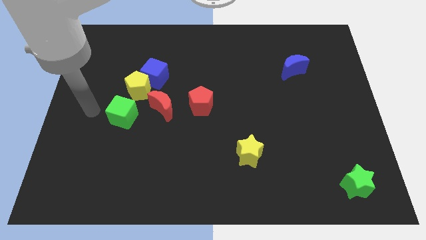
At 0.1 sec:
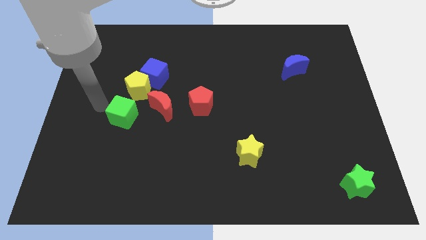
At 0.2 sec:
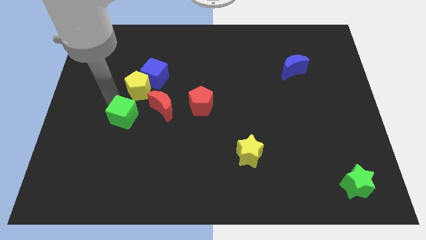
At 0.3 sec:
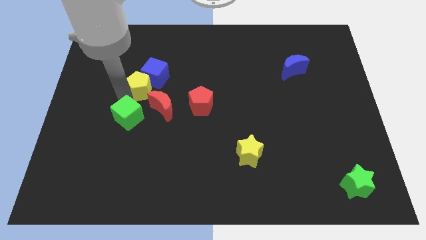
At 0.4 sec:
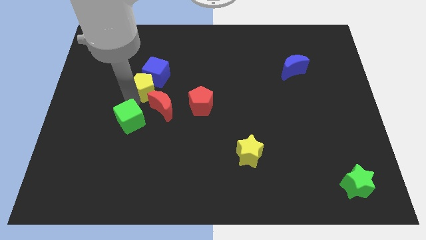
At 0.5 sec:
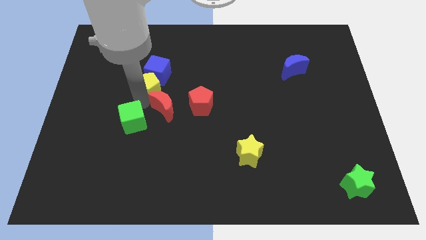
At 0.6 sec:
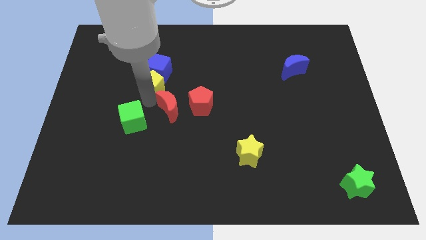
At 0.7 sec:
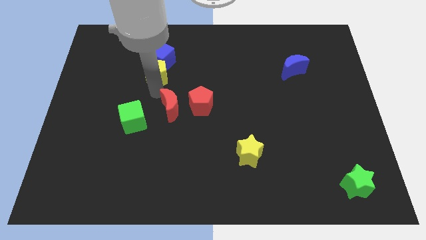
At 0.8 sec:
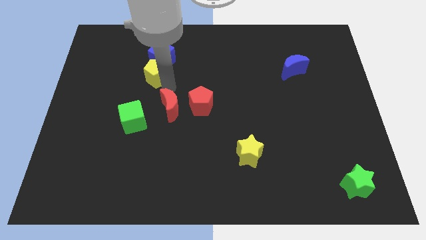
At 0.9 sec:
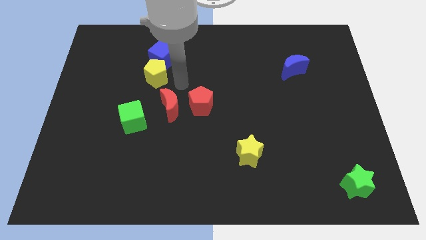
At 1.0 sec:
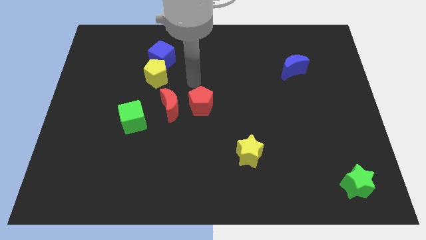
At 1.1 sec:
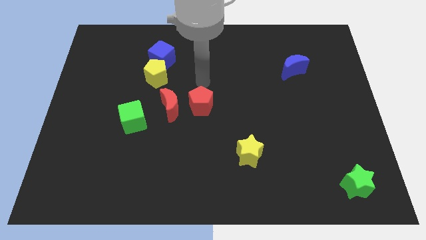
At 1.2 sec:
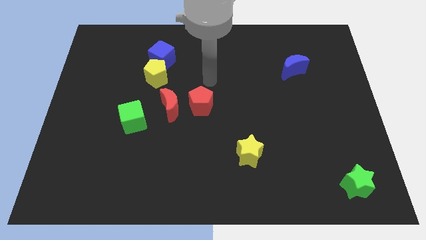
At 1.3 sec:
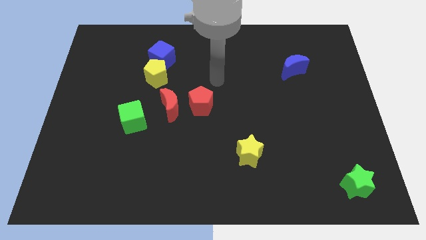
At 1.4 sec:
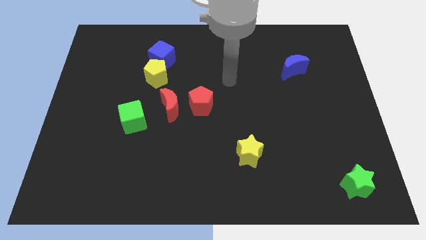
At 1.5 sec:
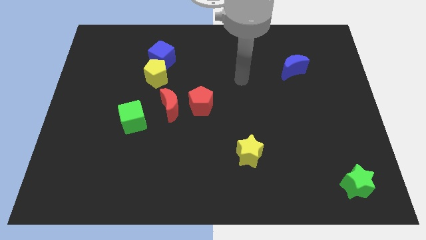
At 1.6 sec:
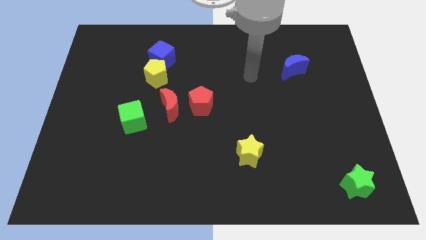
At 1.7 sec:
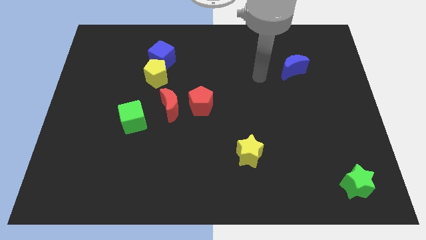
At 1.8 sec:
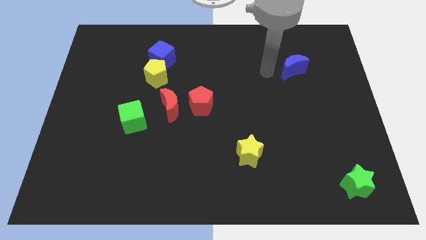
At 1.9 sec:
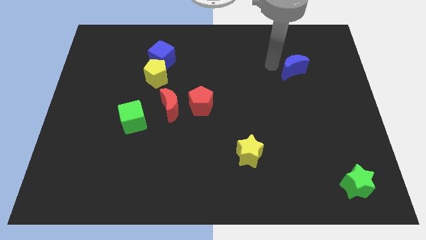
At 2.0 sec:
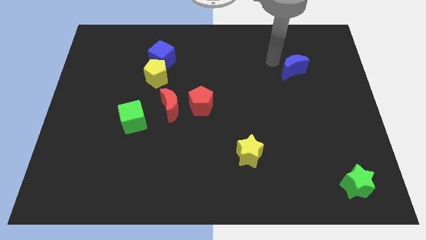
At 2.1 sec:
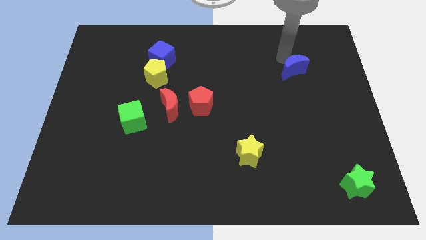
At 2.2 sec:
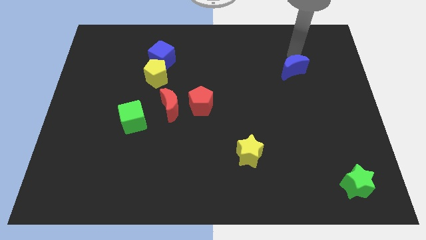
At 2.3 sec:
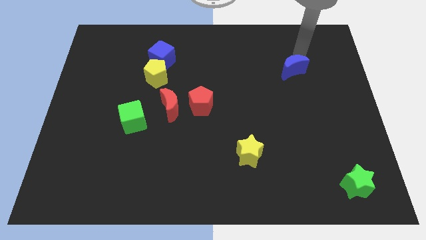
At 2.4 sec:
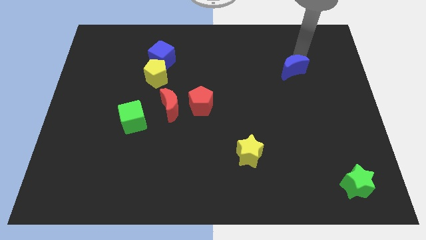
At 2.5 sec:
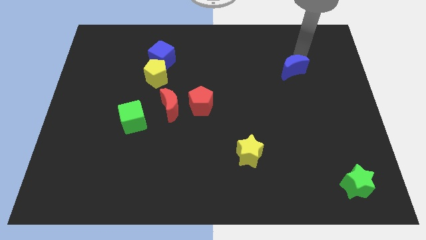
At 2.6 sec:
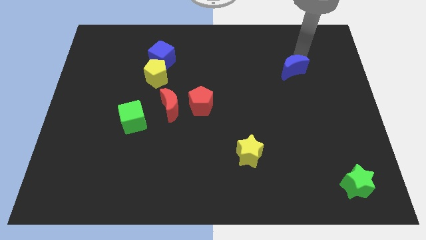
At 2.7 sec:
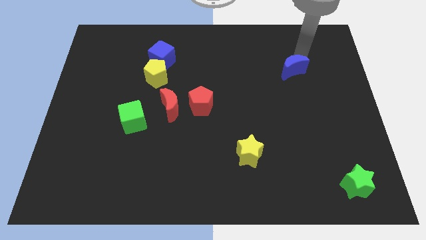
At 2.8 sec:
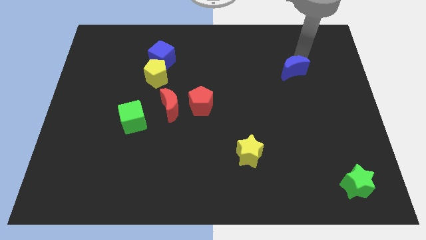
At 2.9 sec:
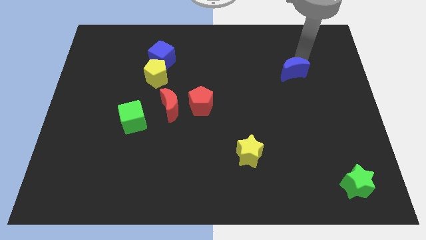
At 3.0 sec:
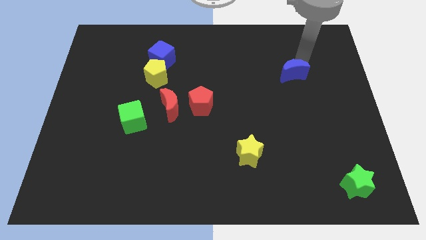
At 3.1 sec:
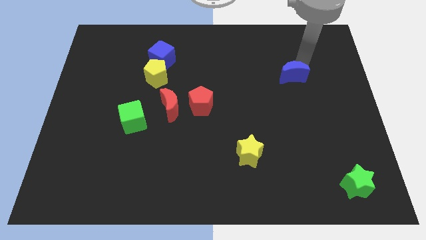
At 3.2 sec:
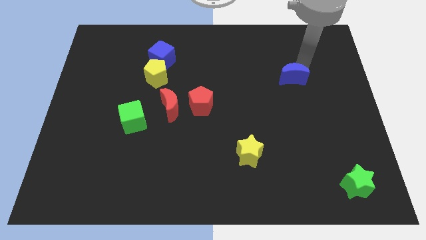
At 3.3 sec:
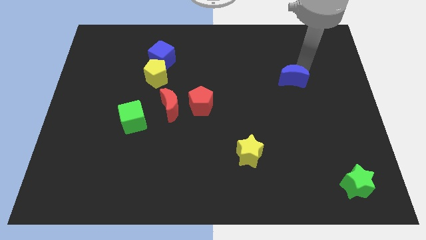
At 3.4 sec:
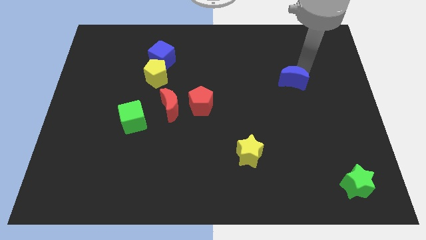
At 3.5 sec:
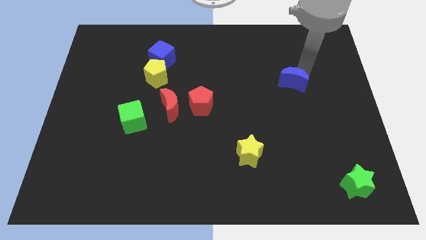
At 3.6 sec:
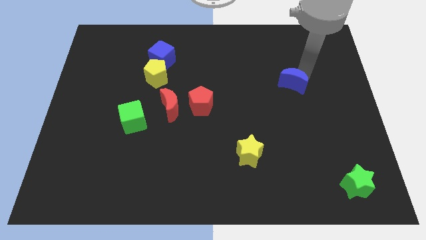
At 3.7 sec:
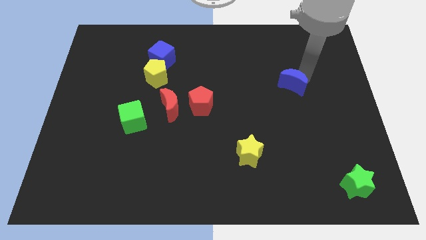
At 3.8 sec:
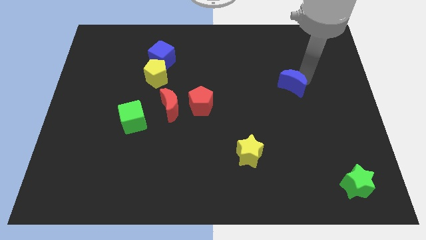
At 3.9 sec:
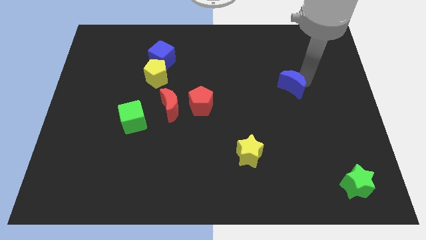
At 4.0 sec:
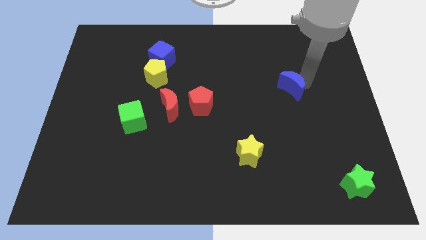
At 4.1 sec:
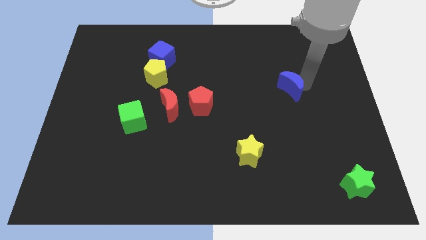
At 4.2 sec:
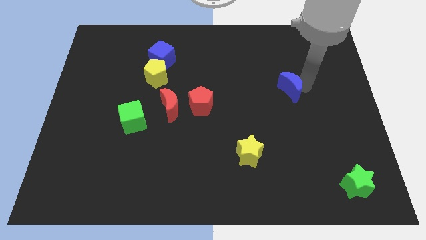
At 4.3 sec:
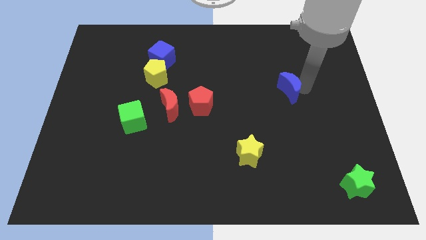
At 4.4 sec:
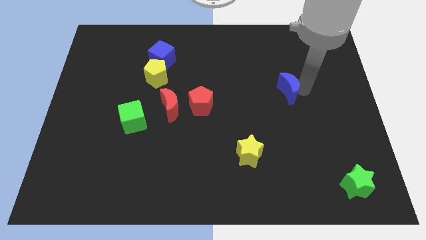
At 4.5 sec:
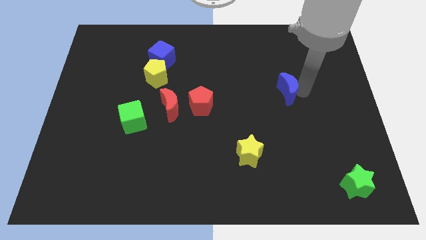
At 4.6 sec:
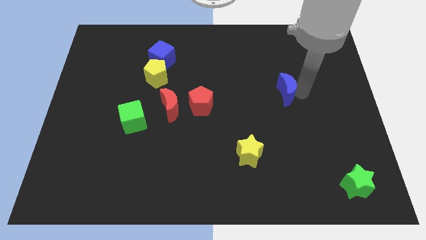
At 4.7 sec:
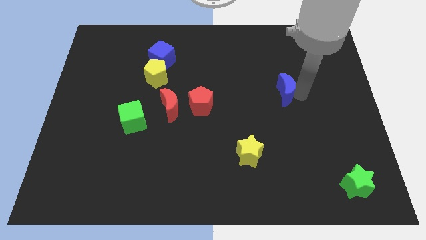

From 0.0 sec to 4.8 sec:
slightly slide the blue moon diagonally down and to the left

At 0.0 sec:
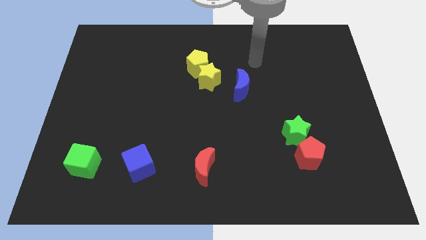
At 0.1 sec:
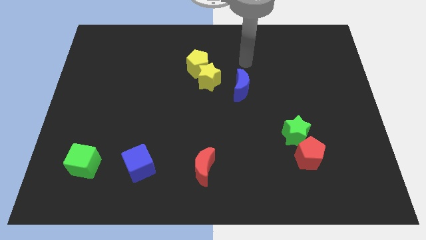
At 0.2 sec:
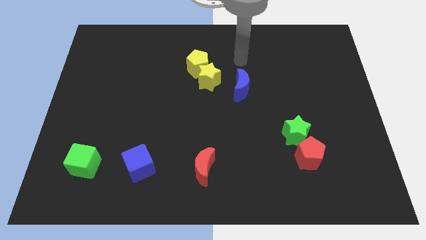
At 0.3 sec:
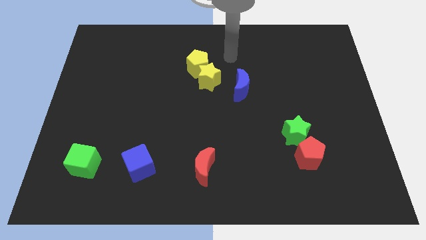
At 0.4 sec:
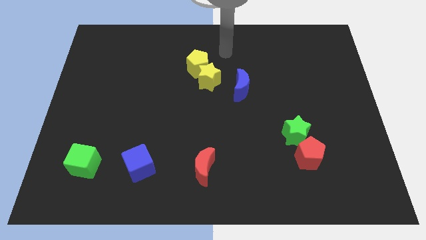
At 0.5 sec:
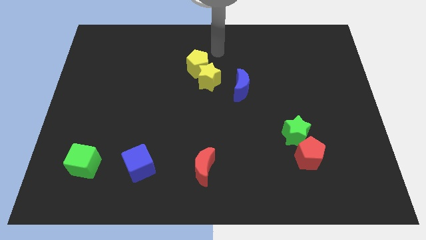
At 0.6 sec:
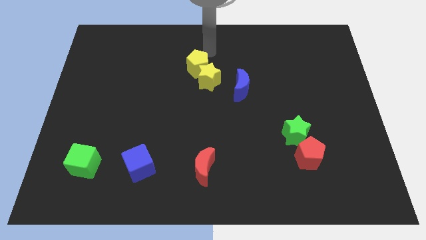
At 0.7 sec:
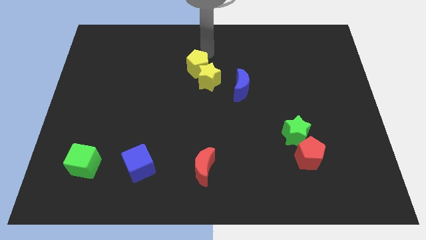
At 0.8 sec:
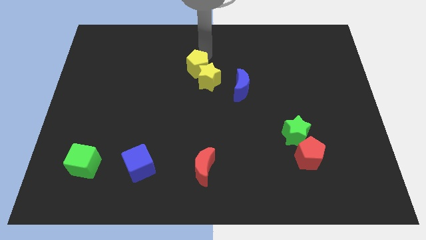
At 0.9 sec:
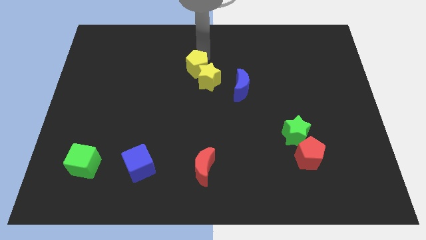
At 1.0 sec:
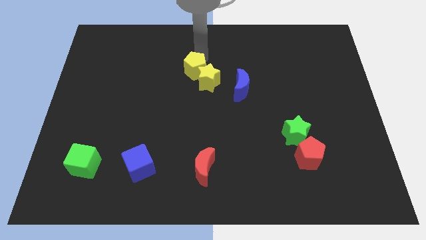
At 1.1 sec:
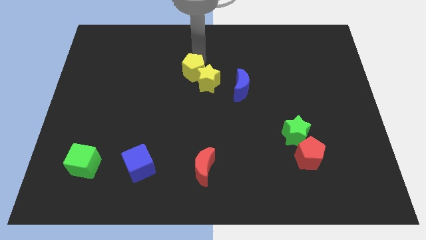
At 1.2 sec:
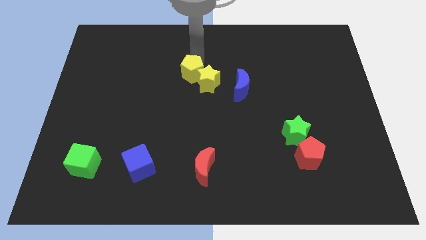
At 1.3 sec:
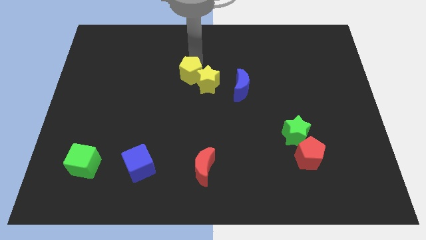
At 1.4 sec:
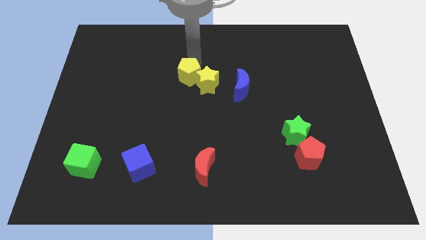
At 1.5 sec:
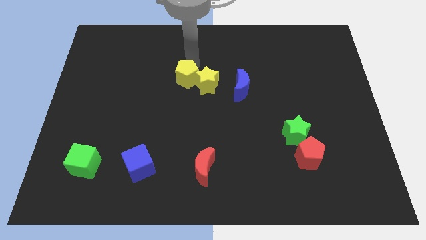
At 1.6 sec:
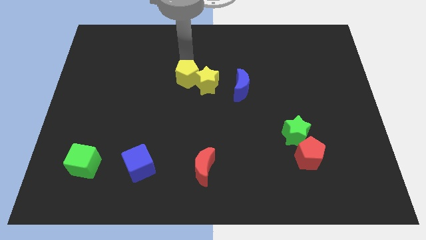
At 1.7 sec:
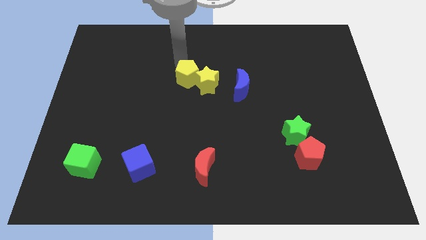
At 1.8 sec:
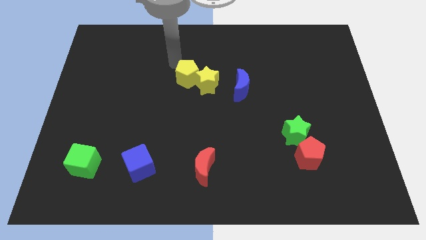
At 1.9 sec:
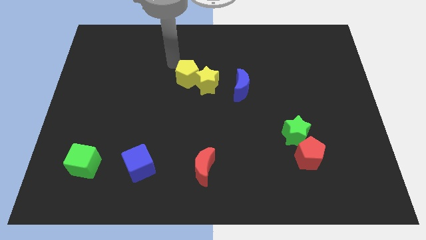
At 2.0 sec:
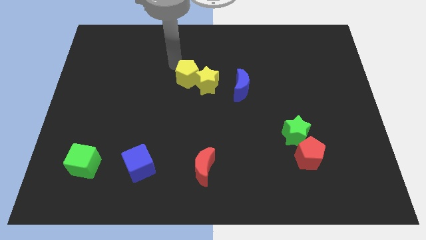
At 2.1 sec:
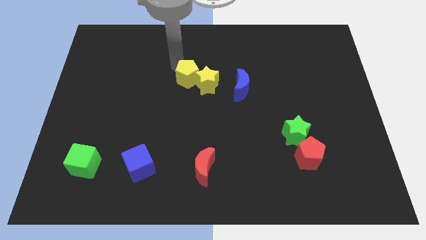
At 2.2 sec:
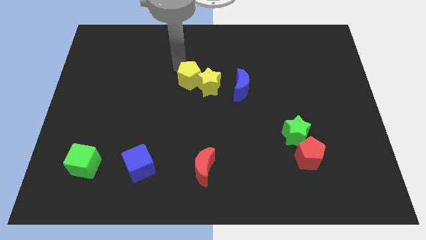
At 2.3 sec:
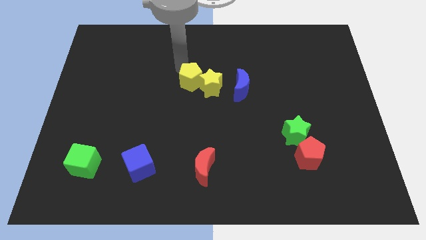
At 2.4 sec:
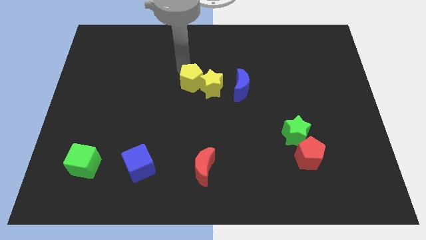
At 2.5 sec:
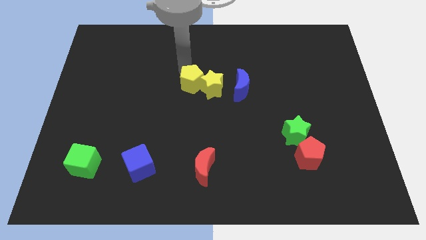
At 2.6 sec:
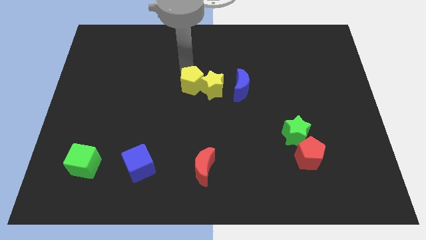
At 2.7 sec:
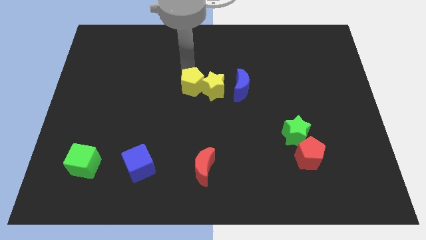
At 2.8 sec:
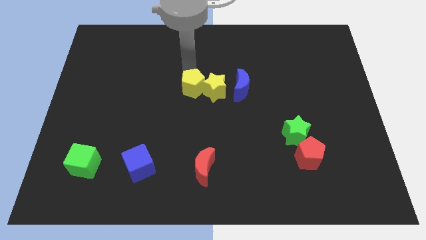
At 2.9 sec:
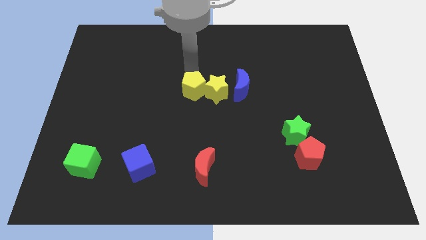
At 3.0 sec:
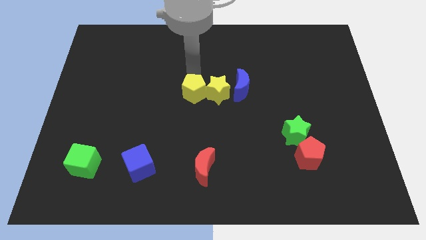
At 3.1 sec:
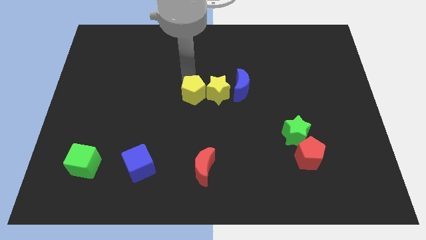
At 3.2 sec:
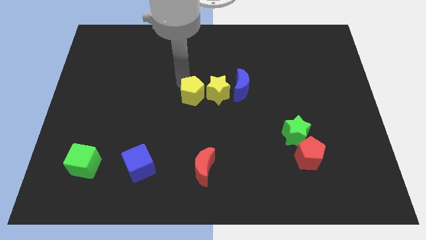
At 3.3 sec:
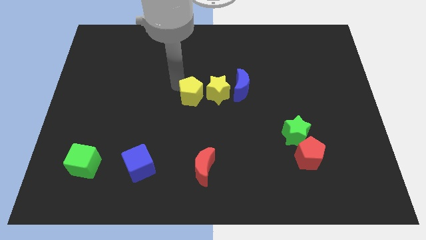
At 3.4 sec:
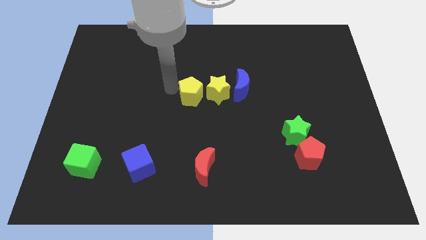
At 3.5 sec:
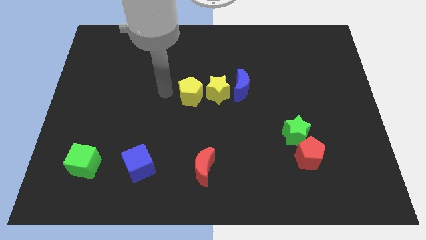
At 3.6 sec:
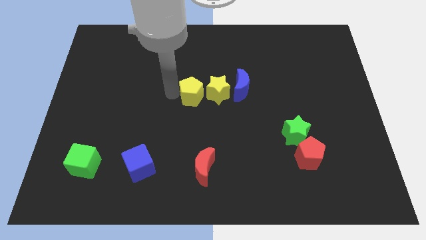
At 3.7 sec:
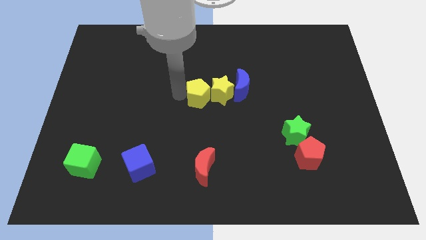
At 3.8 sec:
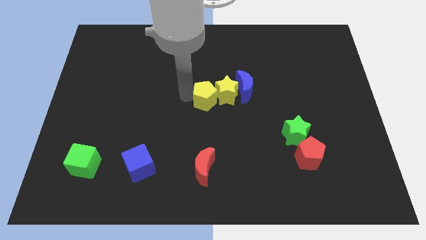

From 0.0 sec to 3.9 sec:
slide the yellow pentagon slightly diagonally down and to the right
